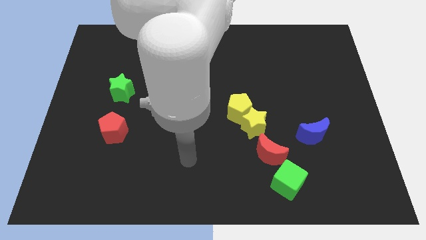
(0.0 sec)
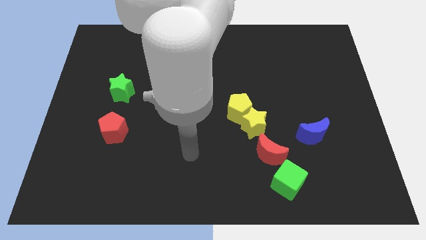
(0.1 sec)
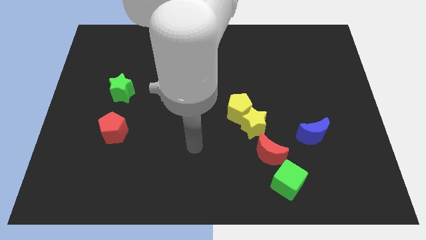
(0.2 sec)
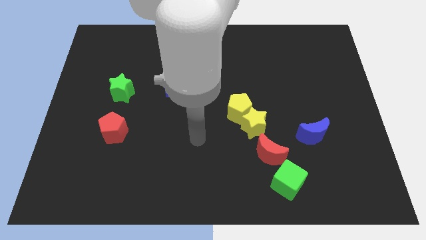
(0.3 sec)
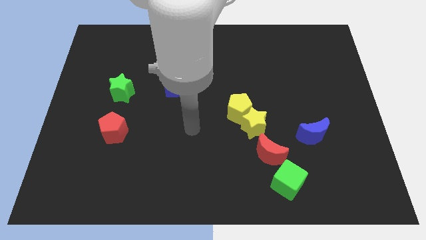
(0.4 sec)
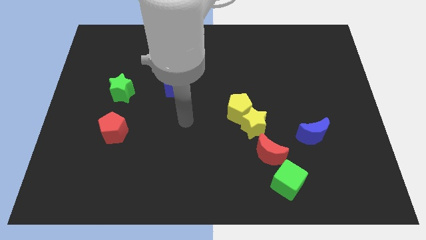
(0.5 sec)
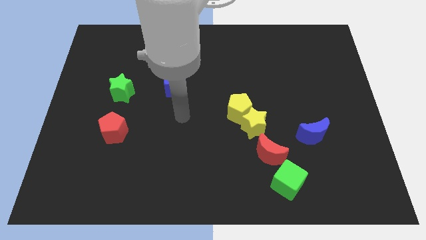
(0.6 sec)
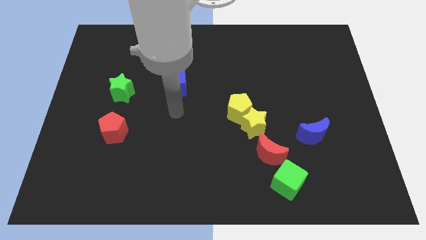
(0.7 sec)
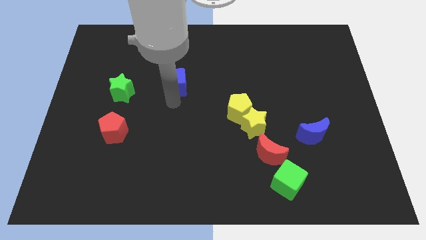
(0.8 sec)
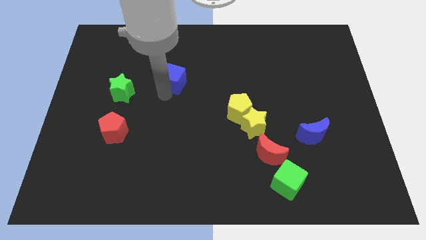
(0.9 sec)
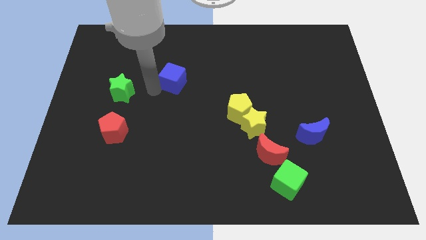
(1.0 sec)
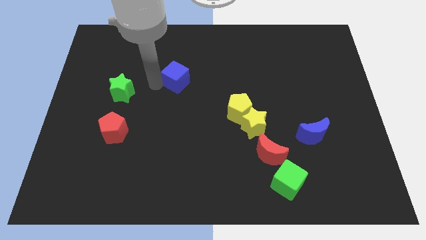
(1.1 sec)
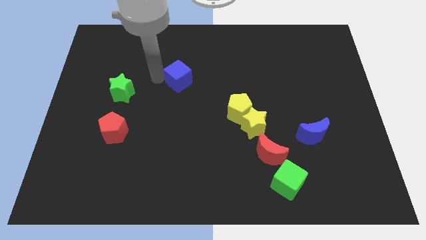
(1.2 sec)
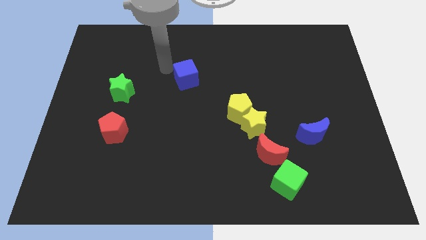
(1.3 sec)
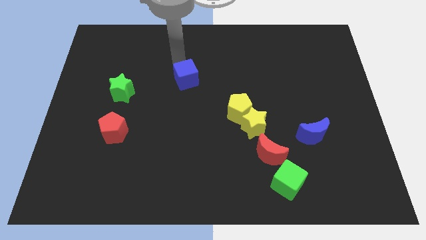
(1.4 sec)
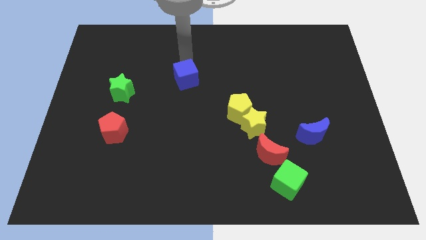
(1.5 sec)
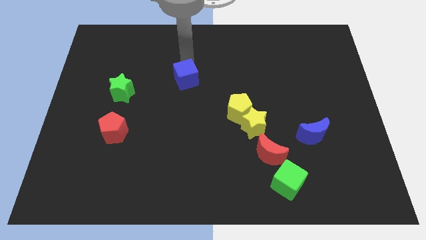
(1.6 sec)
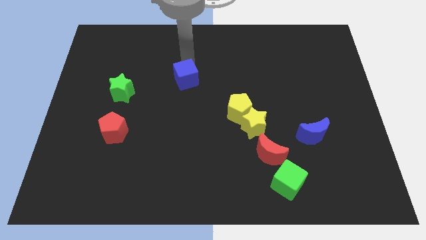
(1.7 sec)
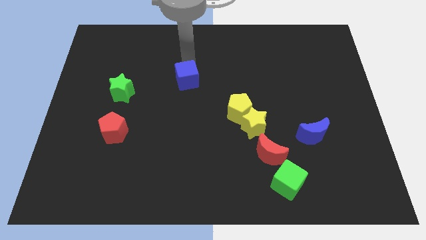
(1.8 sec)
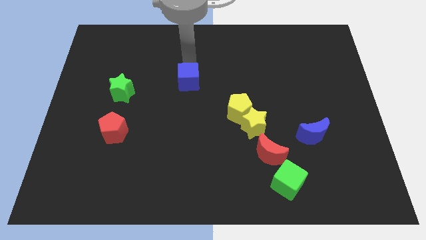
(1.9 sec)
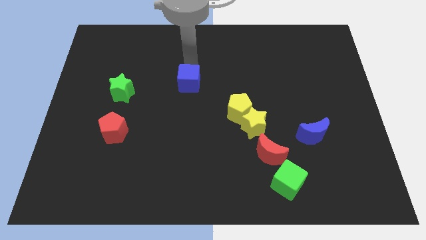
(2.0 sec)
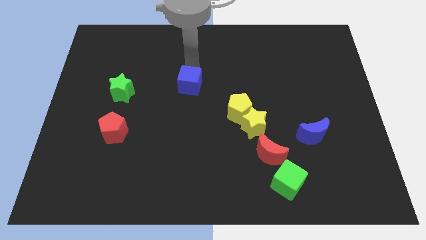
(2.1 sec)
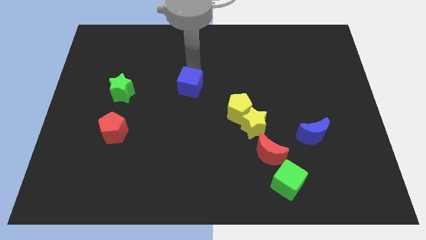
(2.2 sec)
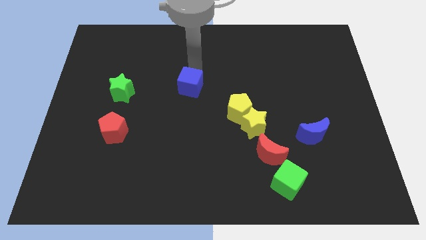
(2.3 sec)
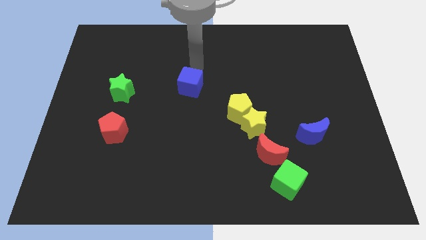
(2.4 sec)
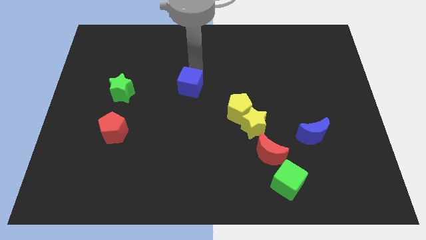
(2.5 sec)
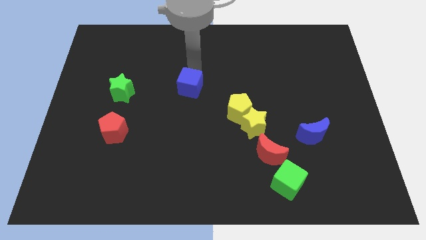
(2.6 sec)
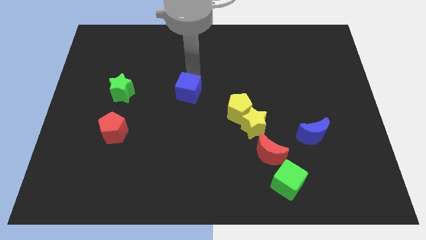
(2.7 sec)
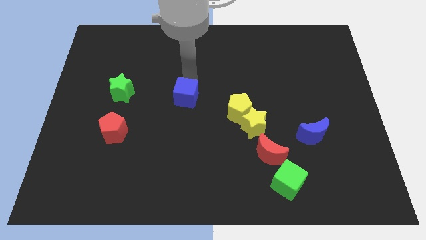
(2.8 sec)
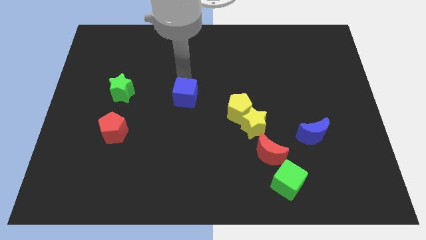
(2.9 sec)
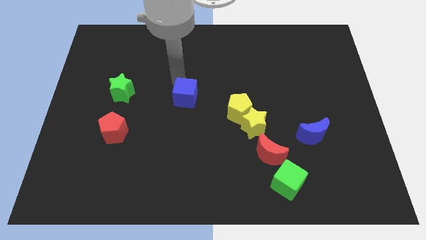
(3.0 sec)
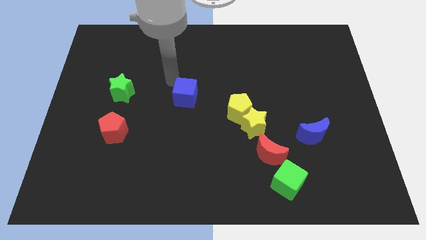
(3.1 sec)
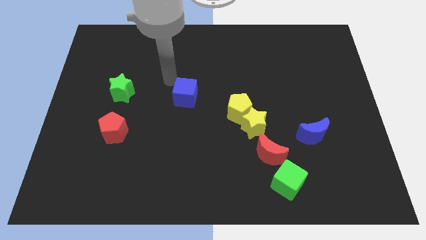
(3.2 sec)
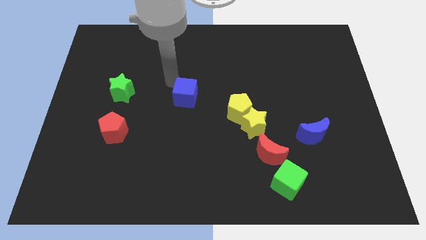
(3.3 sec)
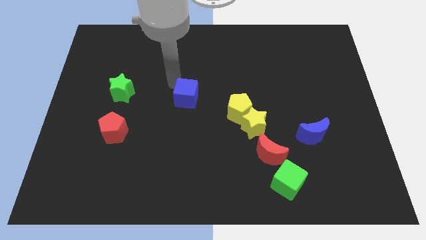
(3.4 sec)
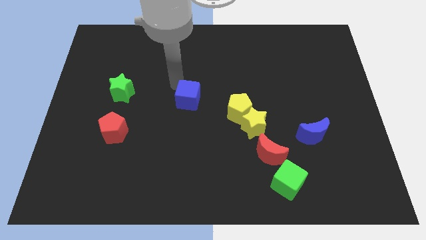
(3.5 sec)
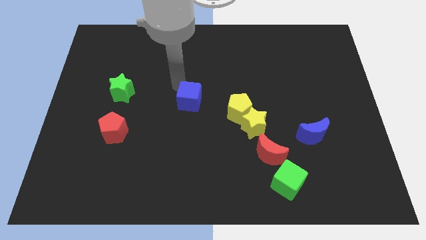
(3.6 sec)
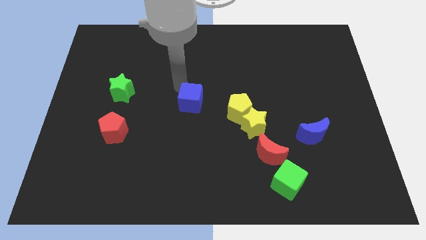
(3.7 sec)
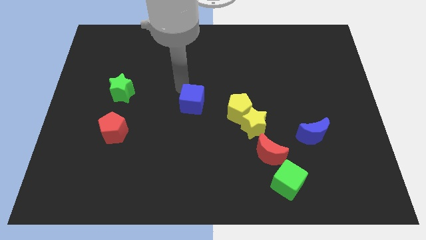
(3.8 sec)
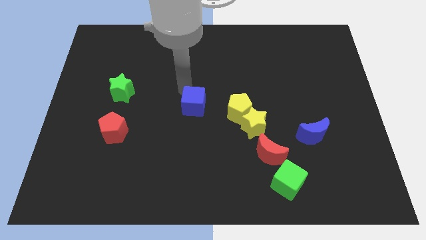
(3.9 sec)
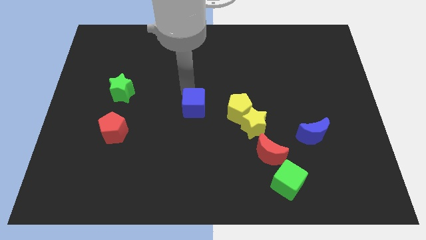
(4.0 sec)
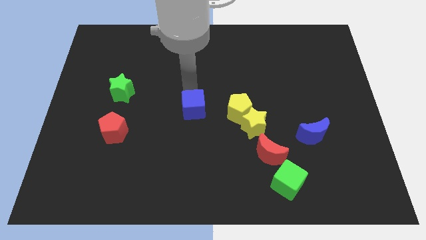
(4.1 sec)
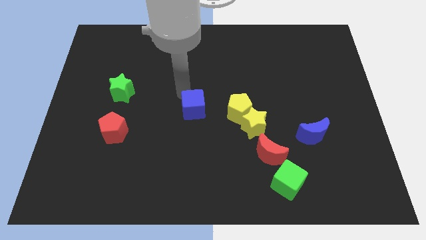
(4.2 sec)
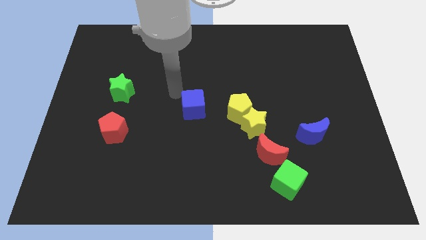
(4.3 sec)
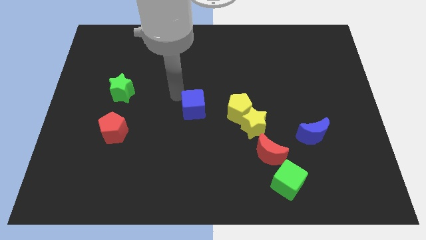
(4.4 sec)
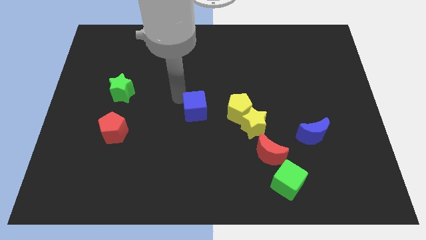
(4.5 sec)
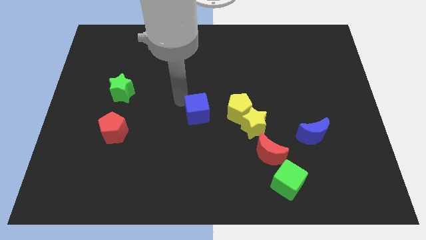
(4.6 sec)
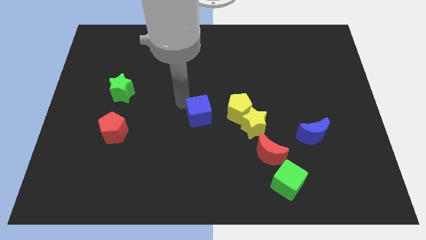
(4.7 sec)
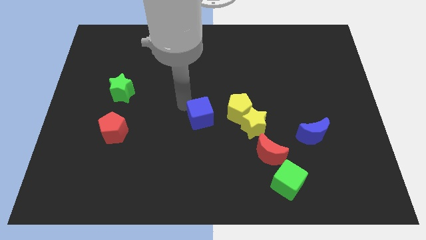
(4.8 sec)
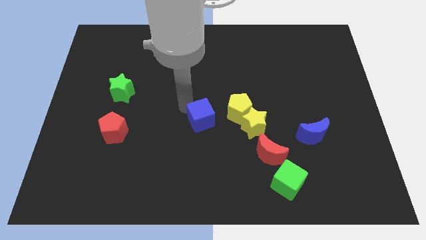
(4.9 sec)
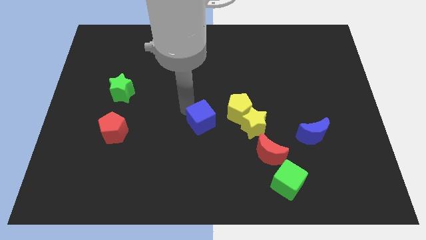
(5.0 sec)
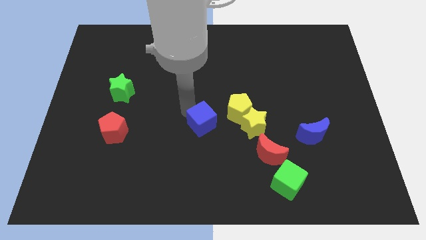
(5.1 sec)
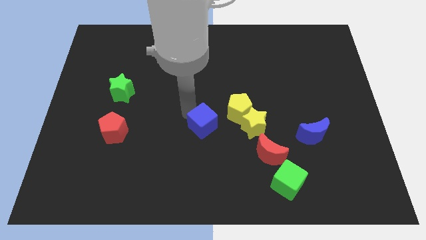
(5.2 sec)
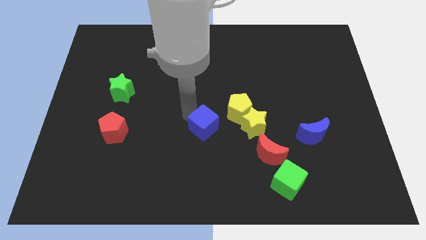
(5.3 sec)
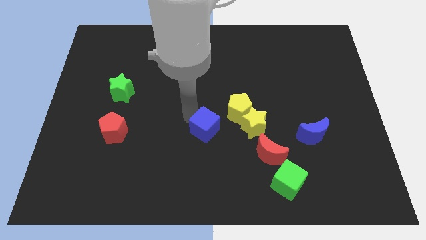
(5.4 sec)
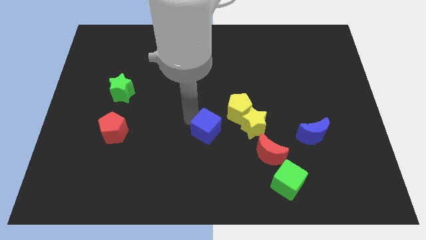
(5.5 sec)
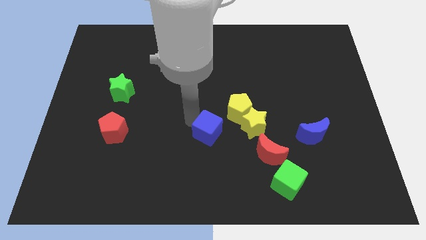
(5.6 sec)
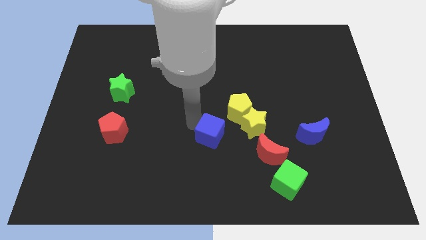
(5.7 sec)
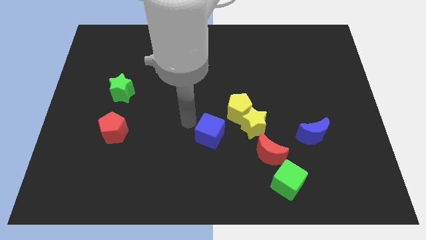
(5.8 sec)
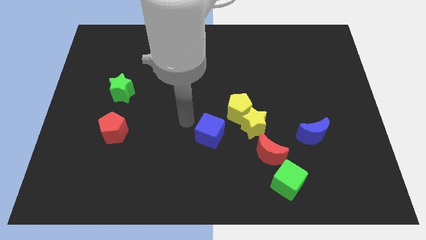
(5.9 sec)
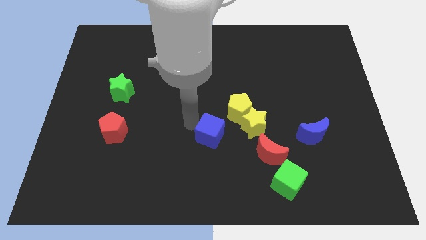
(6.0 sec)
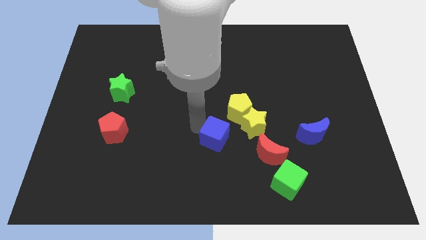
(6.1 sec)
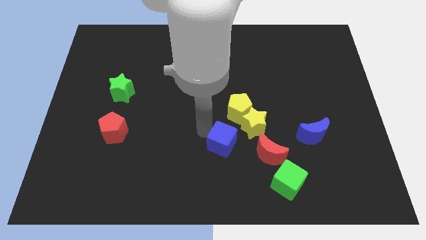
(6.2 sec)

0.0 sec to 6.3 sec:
push the blue cube below the yellow pentagon

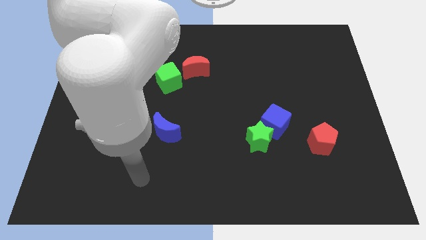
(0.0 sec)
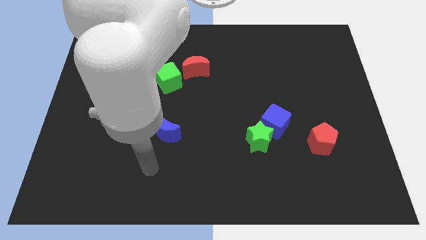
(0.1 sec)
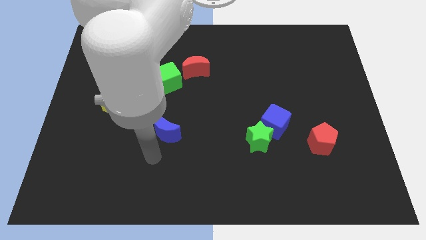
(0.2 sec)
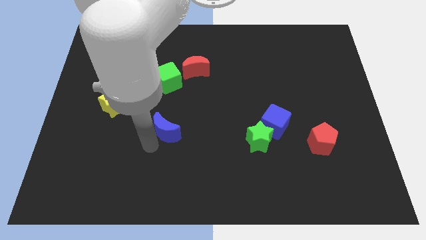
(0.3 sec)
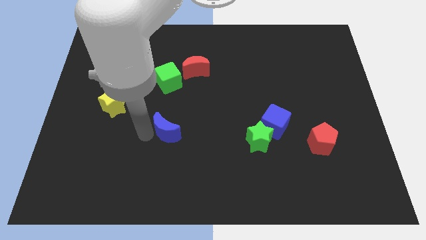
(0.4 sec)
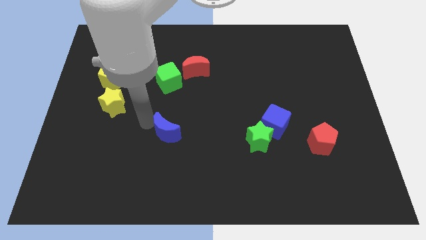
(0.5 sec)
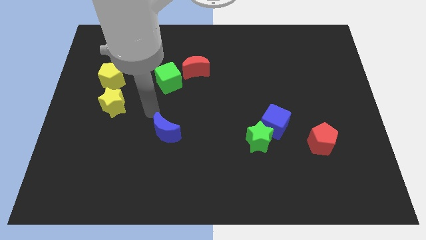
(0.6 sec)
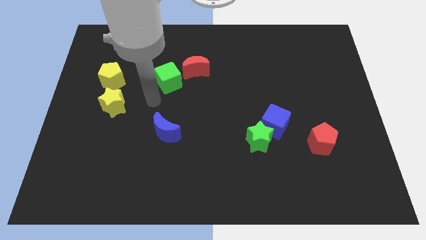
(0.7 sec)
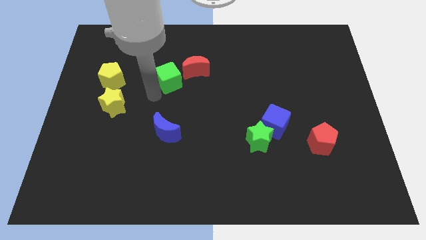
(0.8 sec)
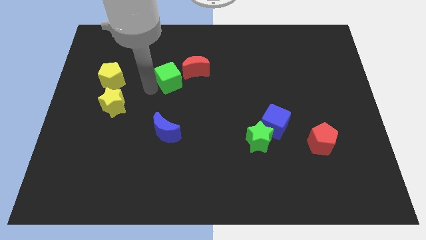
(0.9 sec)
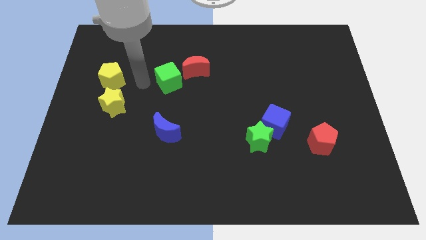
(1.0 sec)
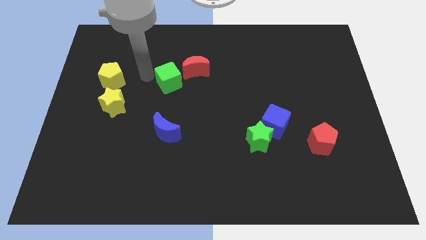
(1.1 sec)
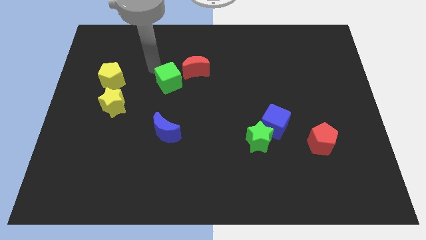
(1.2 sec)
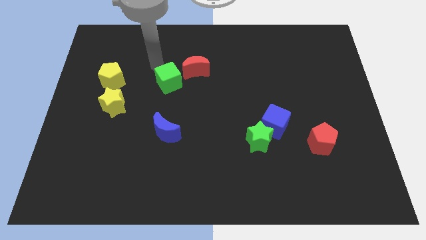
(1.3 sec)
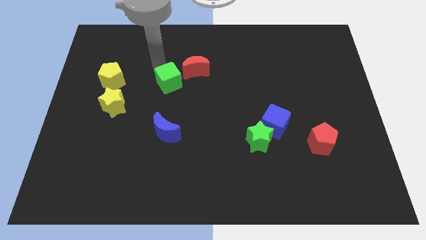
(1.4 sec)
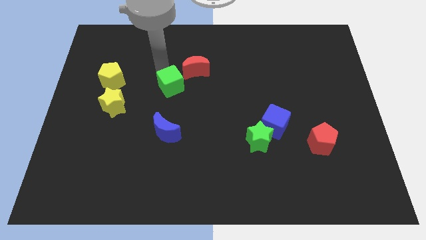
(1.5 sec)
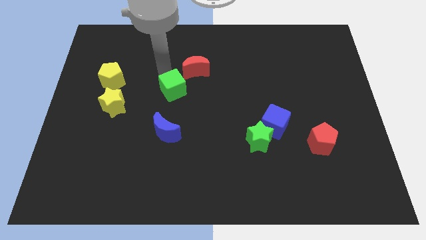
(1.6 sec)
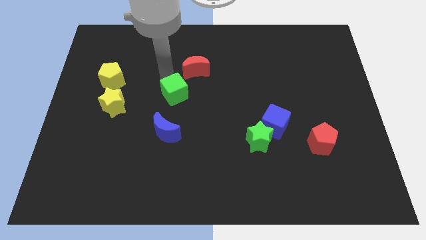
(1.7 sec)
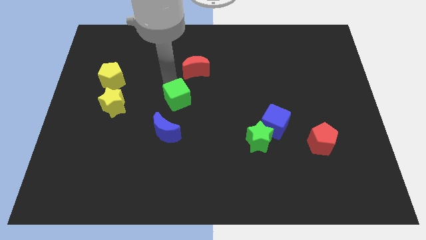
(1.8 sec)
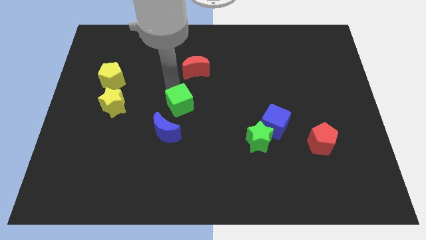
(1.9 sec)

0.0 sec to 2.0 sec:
slide the green cube to the top right of the blue moon
